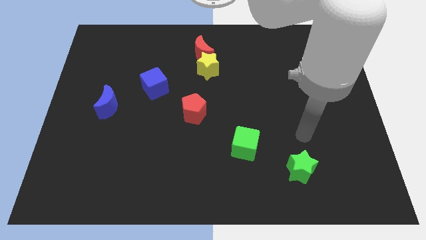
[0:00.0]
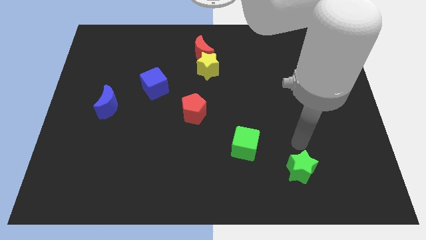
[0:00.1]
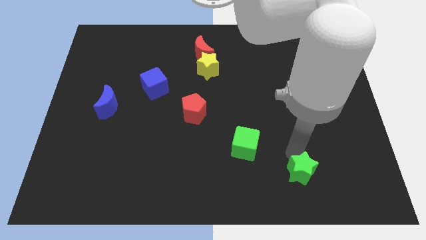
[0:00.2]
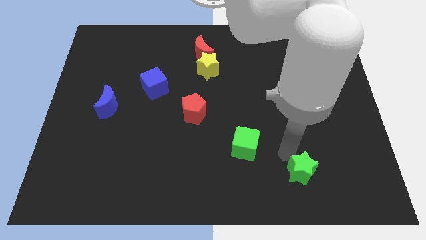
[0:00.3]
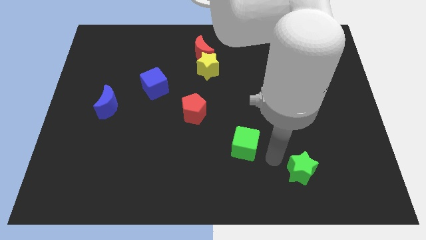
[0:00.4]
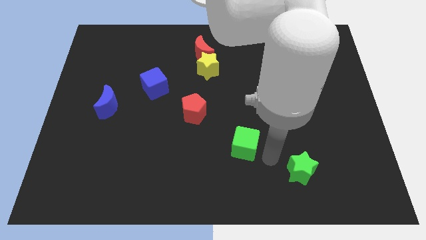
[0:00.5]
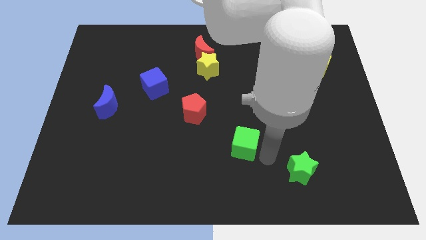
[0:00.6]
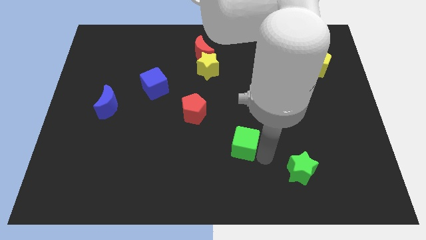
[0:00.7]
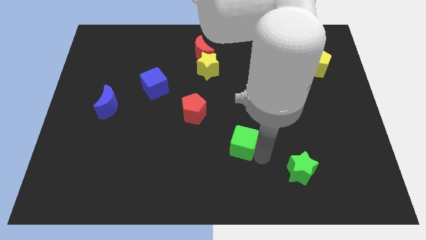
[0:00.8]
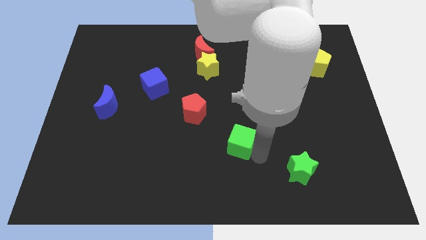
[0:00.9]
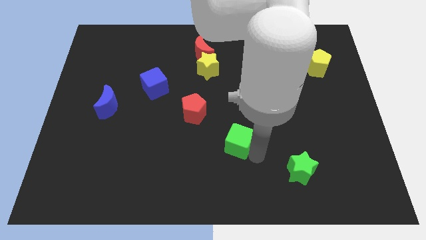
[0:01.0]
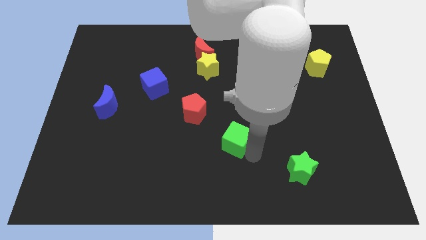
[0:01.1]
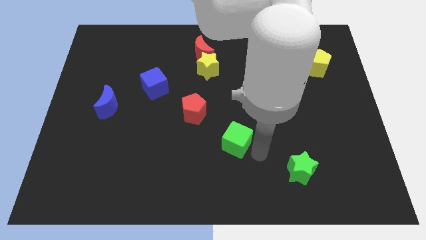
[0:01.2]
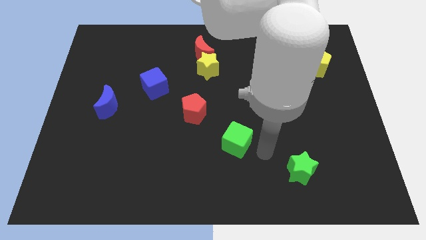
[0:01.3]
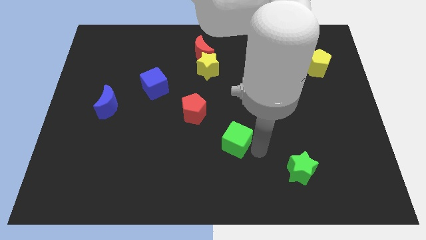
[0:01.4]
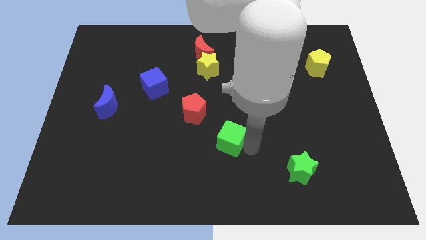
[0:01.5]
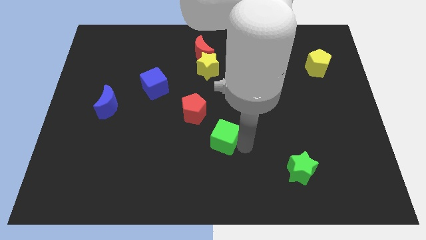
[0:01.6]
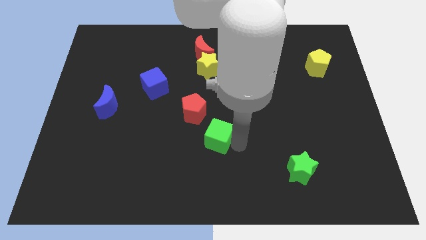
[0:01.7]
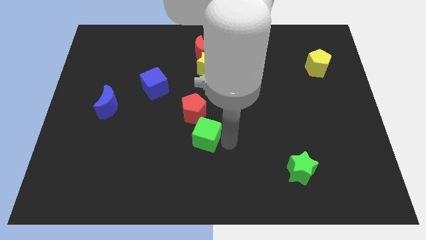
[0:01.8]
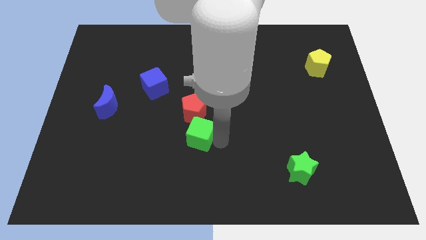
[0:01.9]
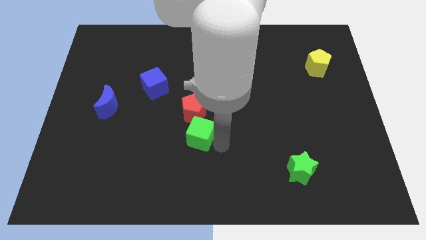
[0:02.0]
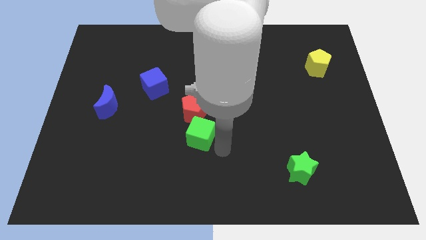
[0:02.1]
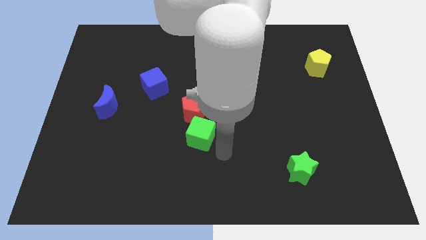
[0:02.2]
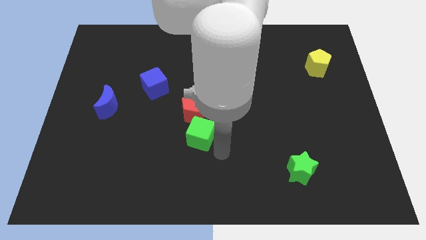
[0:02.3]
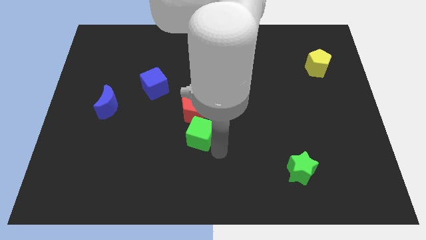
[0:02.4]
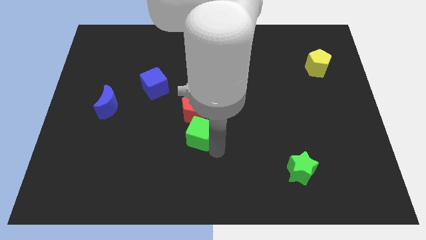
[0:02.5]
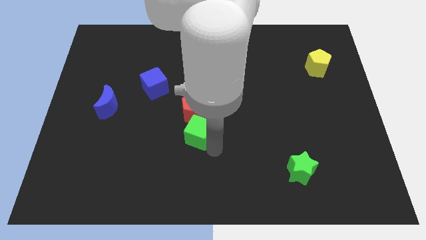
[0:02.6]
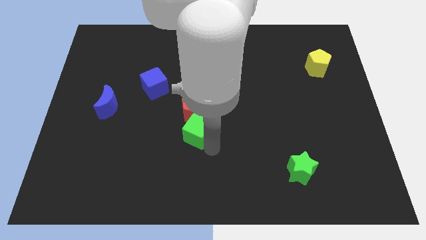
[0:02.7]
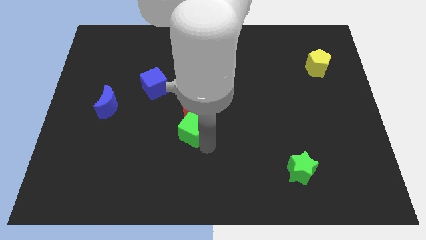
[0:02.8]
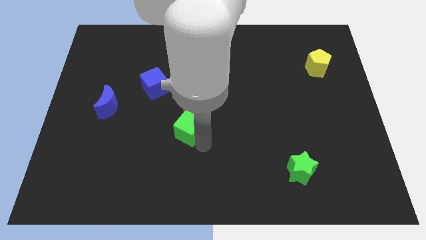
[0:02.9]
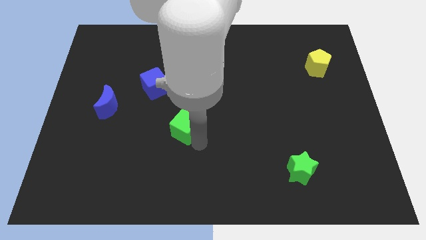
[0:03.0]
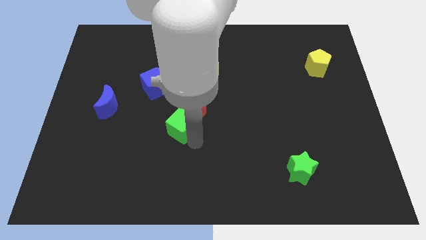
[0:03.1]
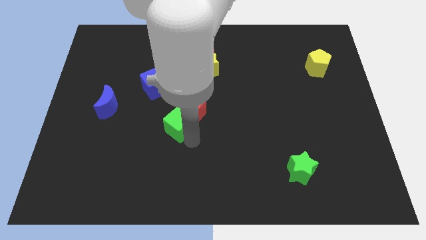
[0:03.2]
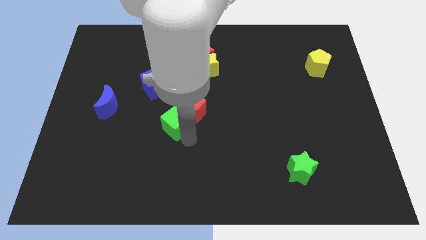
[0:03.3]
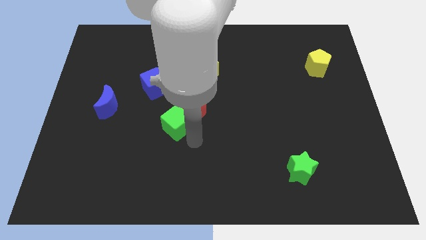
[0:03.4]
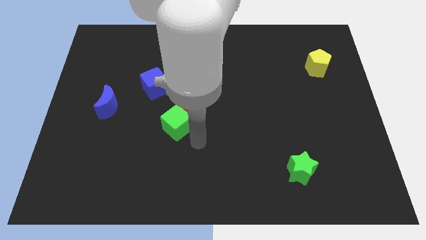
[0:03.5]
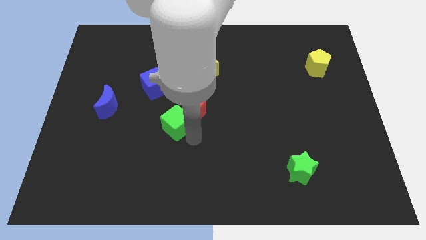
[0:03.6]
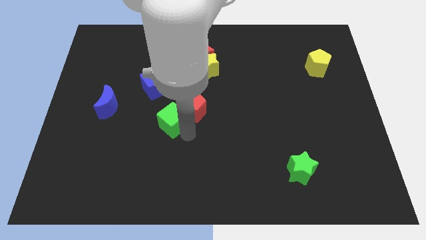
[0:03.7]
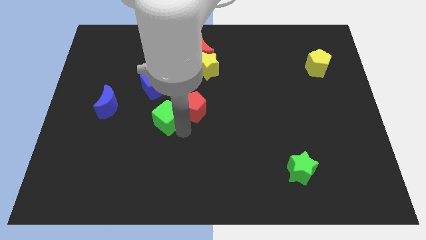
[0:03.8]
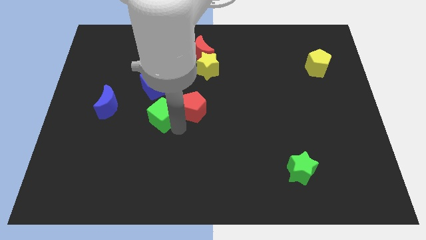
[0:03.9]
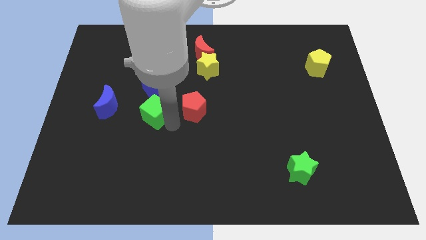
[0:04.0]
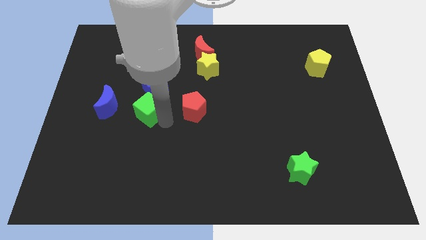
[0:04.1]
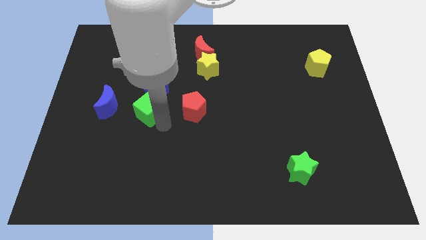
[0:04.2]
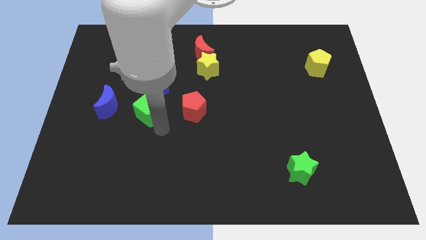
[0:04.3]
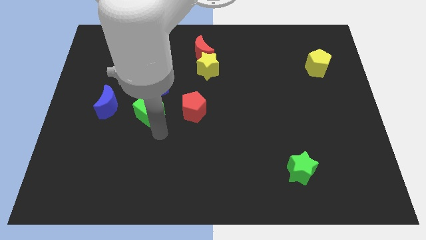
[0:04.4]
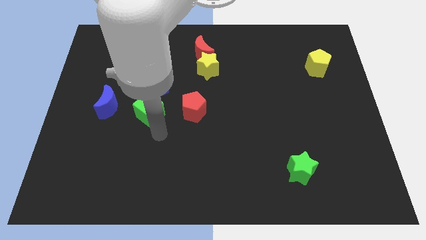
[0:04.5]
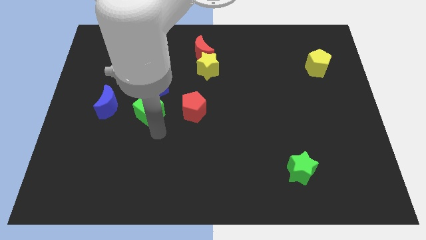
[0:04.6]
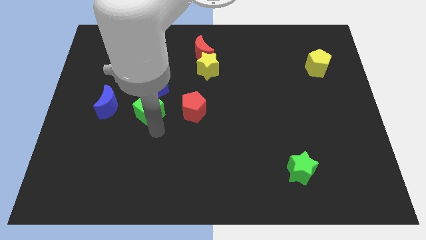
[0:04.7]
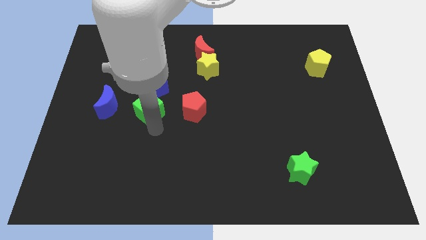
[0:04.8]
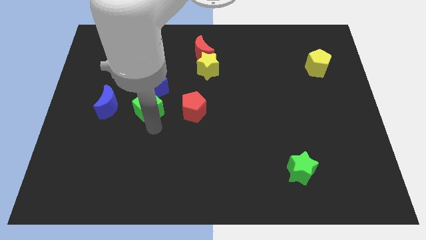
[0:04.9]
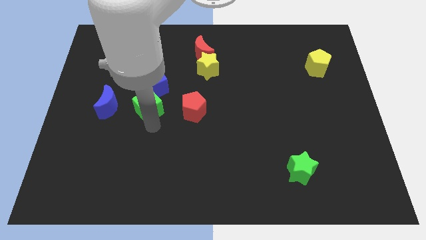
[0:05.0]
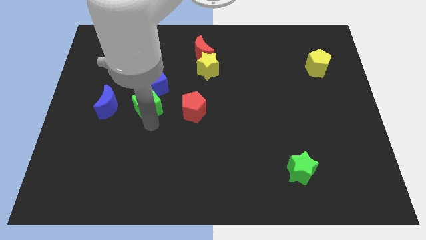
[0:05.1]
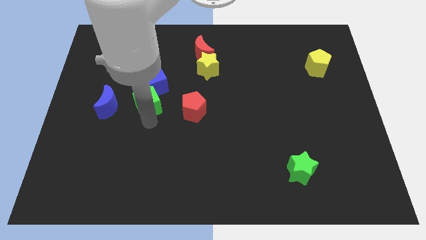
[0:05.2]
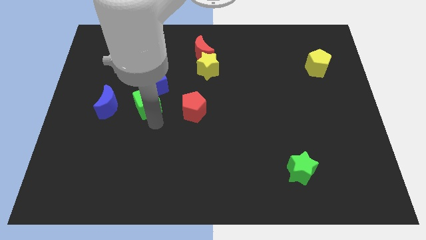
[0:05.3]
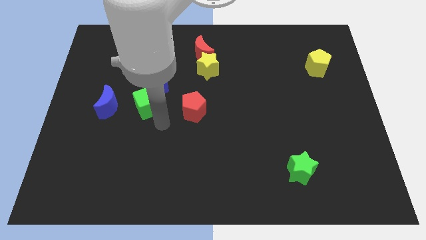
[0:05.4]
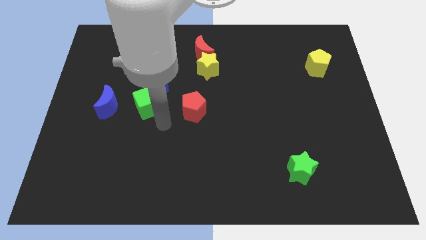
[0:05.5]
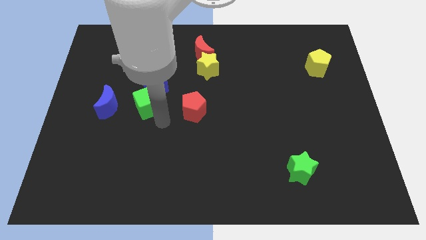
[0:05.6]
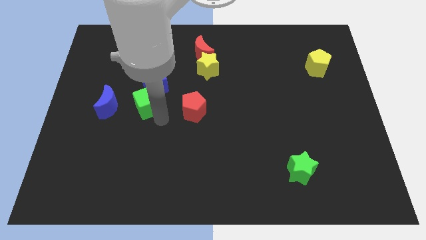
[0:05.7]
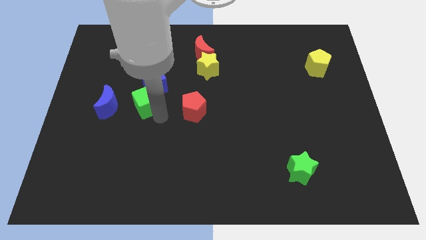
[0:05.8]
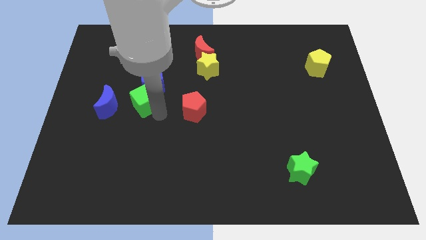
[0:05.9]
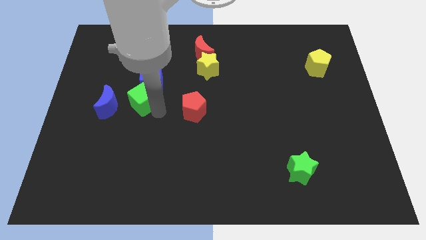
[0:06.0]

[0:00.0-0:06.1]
push the green cube diagonally up and to the right of the blue moon
